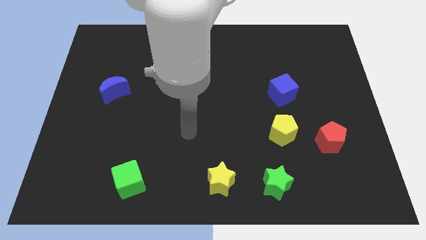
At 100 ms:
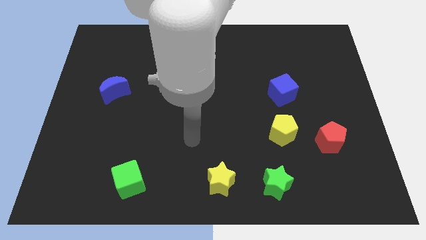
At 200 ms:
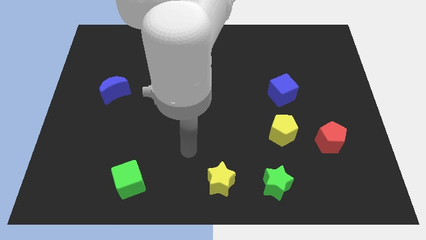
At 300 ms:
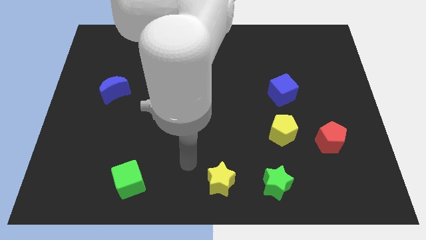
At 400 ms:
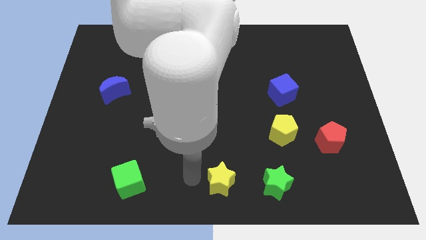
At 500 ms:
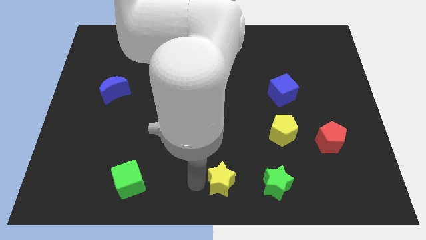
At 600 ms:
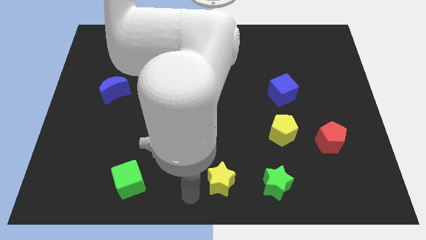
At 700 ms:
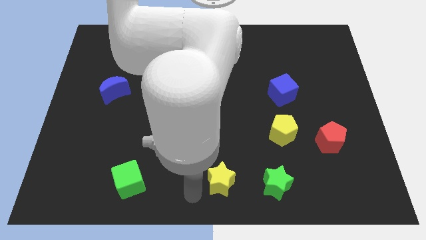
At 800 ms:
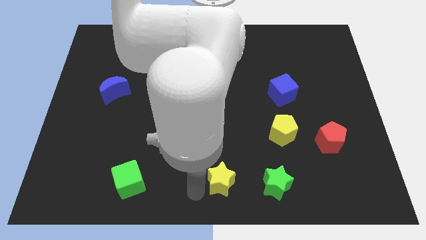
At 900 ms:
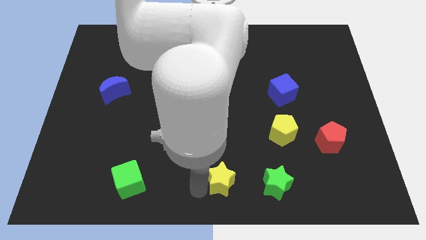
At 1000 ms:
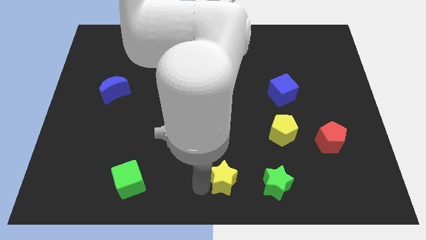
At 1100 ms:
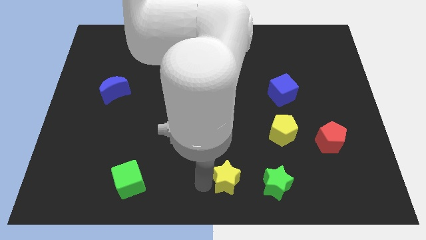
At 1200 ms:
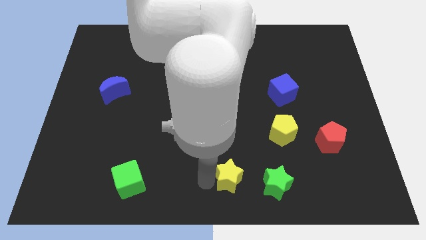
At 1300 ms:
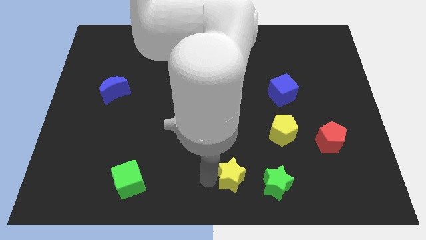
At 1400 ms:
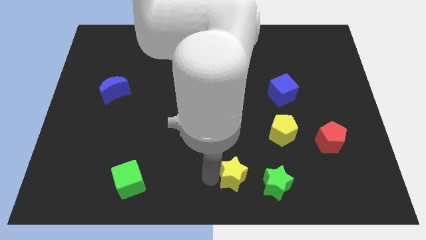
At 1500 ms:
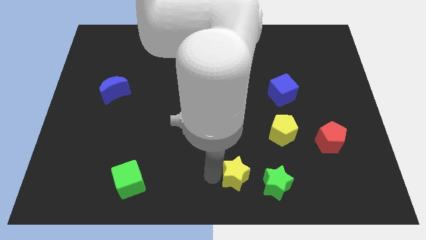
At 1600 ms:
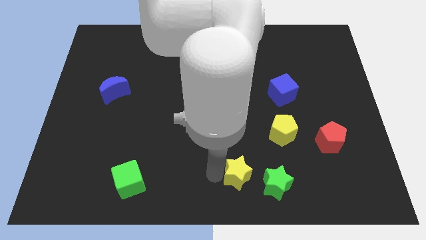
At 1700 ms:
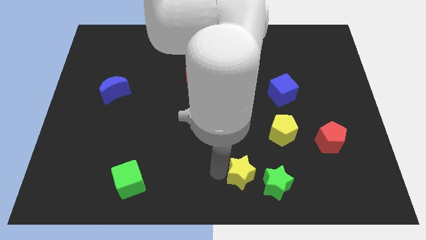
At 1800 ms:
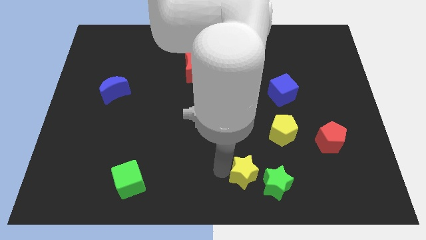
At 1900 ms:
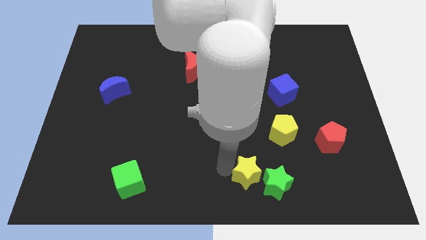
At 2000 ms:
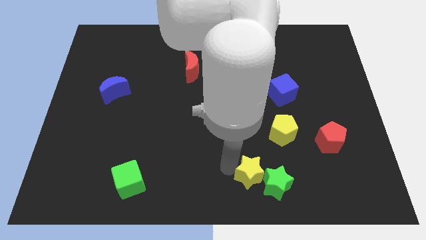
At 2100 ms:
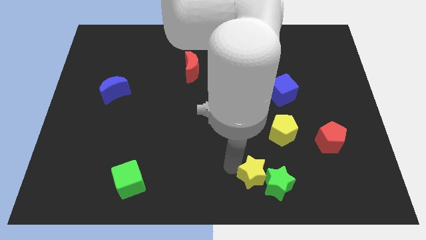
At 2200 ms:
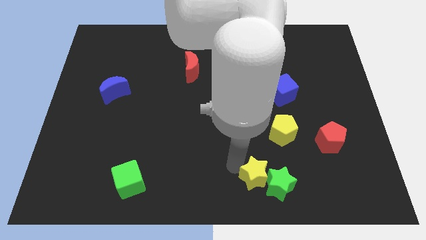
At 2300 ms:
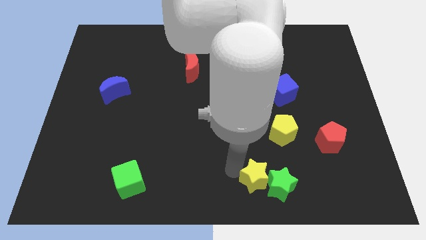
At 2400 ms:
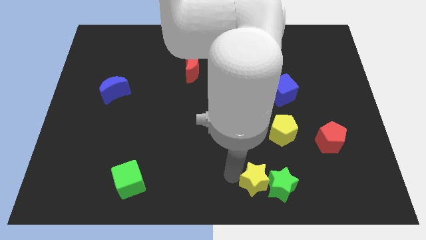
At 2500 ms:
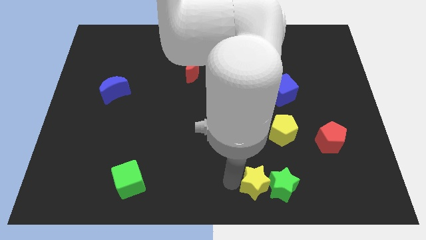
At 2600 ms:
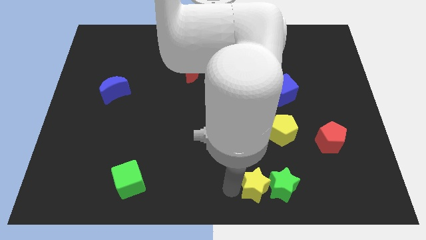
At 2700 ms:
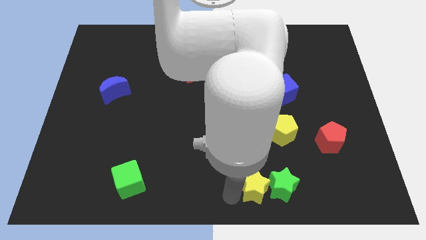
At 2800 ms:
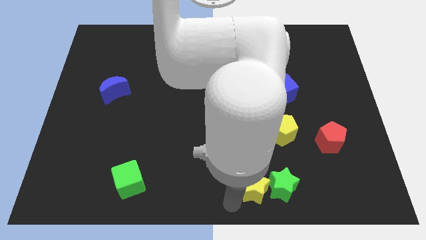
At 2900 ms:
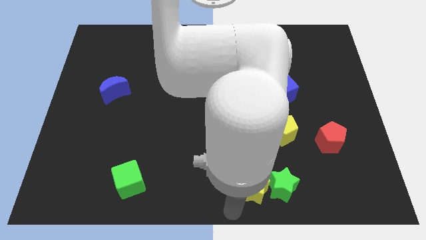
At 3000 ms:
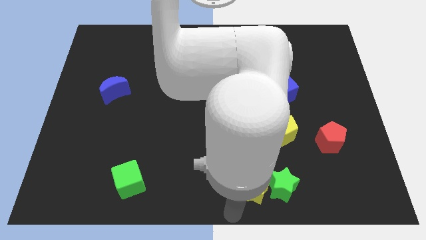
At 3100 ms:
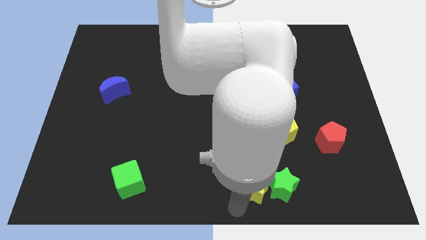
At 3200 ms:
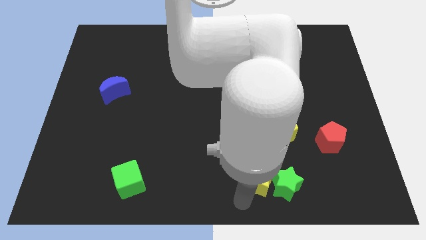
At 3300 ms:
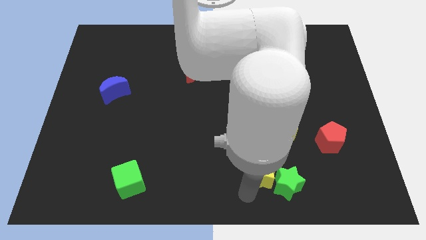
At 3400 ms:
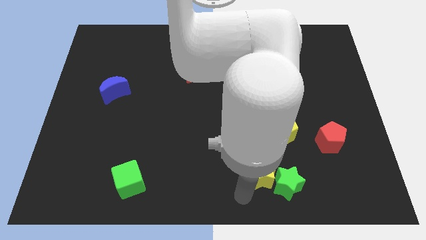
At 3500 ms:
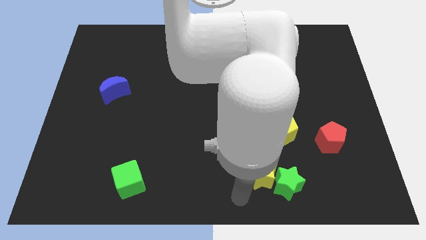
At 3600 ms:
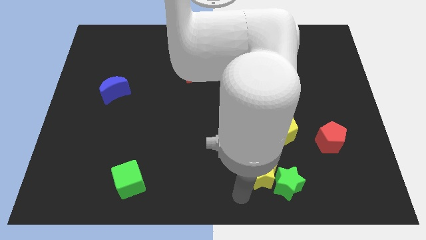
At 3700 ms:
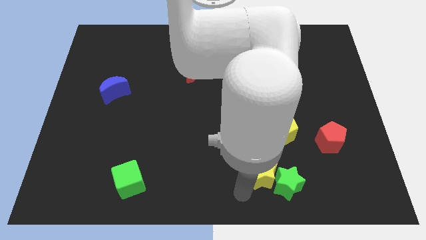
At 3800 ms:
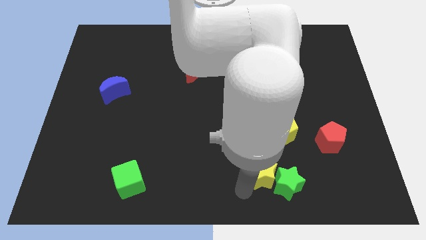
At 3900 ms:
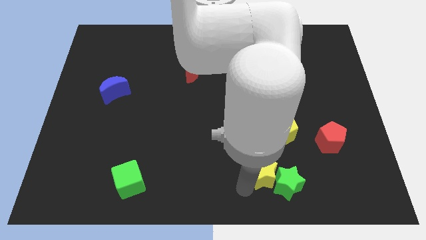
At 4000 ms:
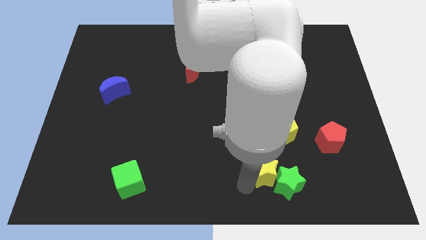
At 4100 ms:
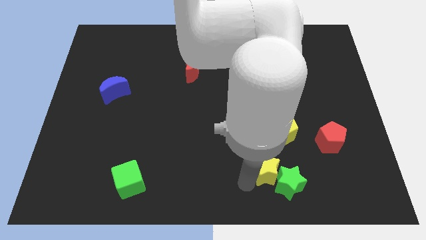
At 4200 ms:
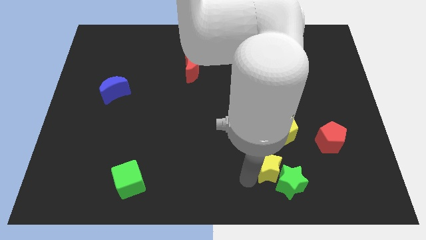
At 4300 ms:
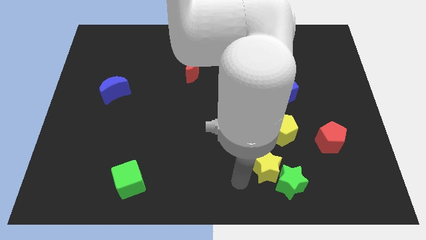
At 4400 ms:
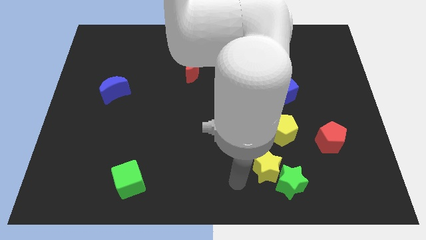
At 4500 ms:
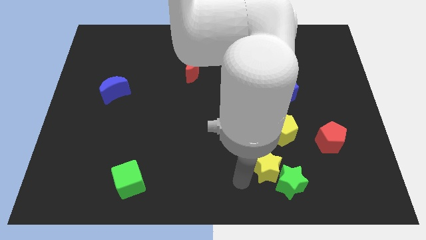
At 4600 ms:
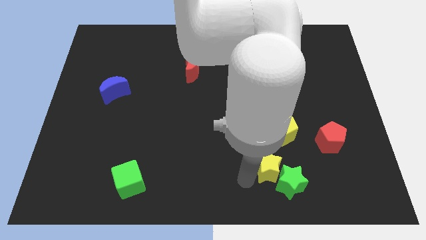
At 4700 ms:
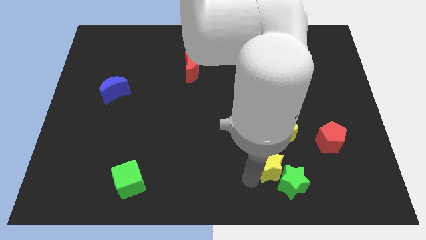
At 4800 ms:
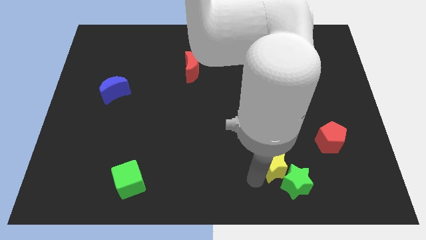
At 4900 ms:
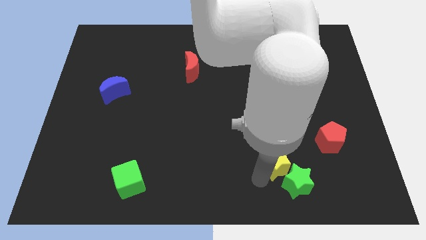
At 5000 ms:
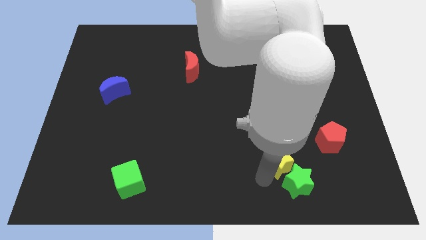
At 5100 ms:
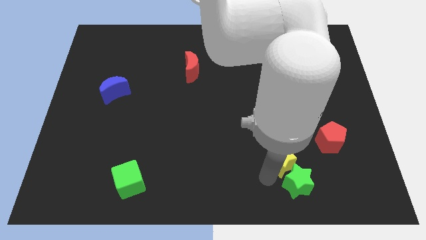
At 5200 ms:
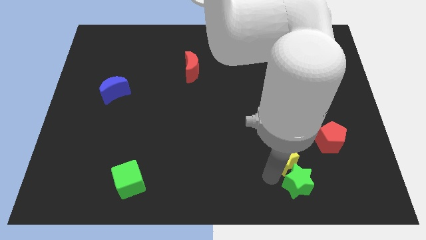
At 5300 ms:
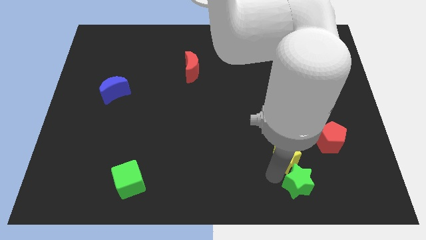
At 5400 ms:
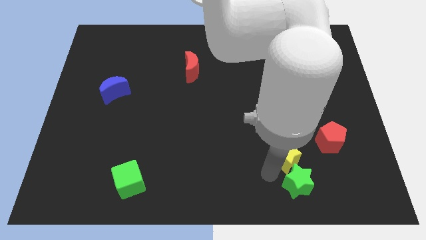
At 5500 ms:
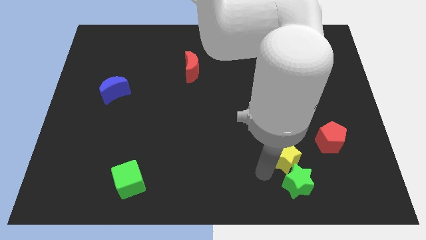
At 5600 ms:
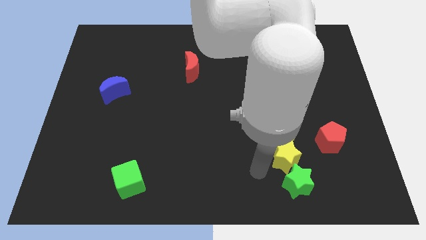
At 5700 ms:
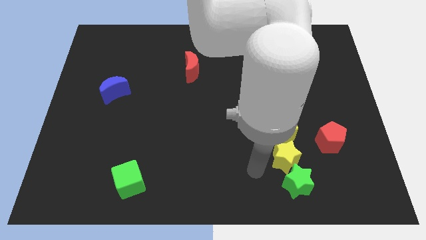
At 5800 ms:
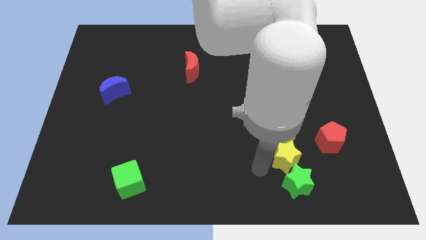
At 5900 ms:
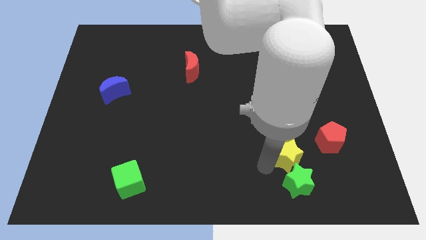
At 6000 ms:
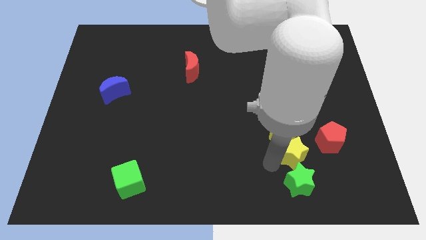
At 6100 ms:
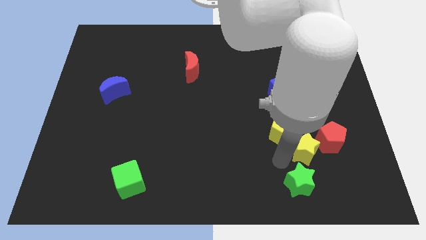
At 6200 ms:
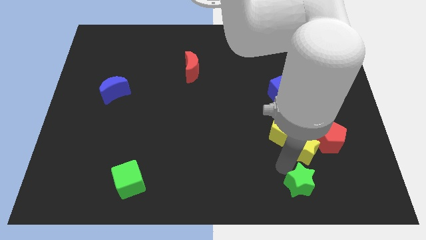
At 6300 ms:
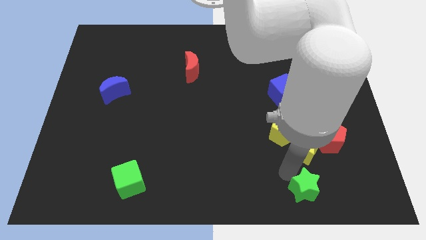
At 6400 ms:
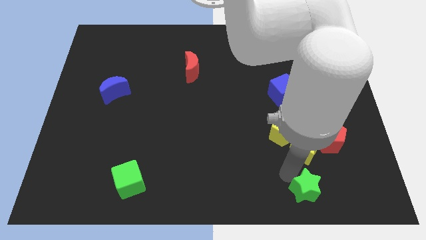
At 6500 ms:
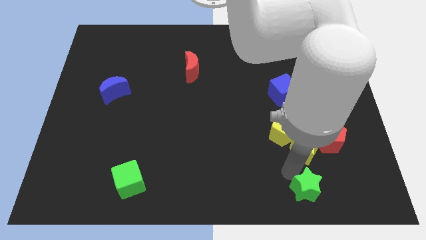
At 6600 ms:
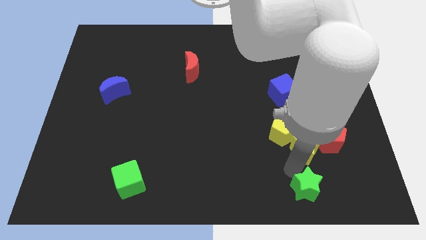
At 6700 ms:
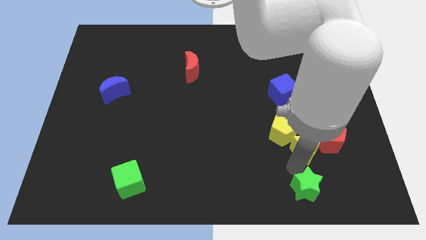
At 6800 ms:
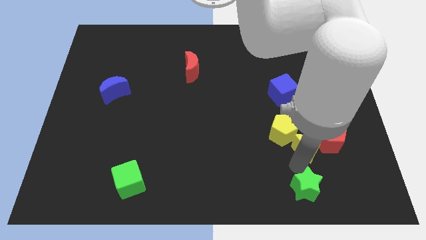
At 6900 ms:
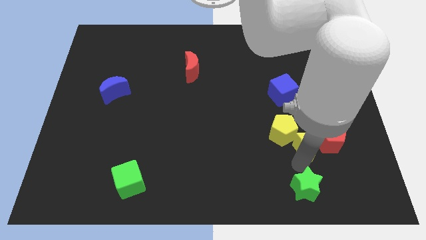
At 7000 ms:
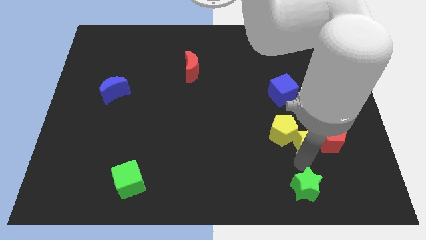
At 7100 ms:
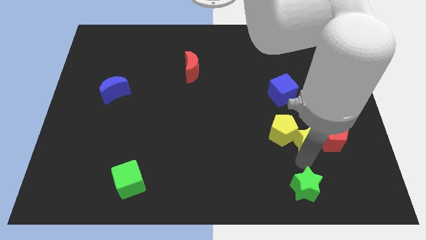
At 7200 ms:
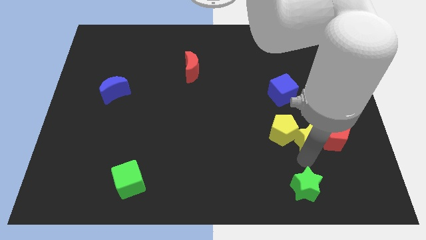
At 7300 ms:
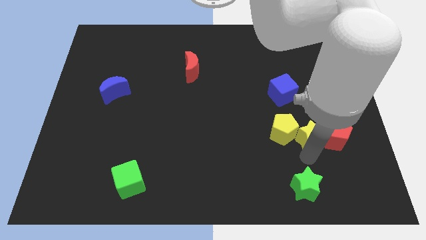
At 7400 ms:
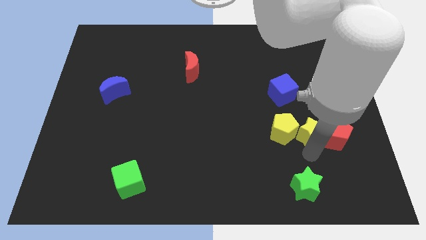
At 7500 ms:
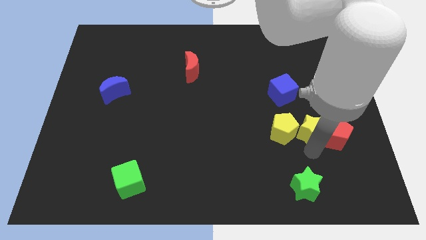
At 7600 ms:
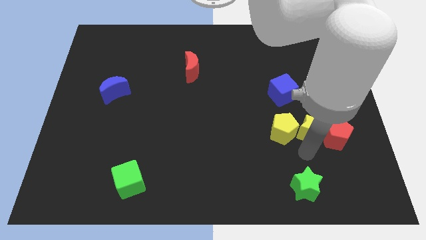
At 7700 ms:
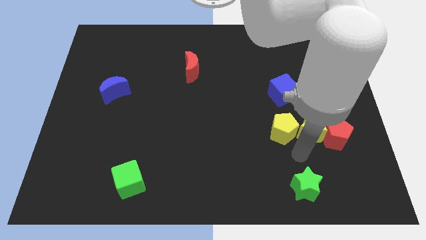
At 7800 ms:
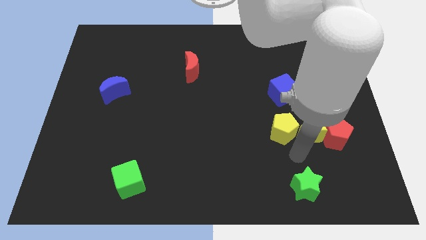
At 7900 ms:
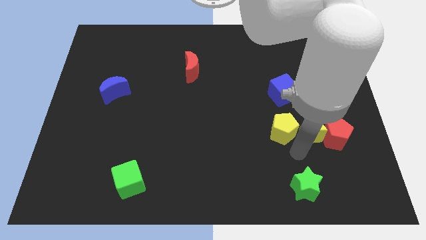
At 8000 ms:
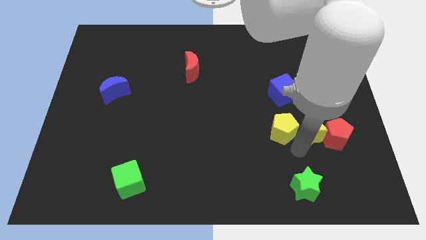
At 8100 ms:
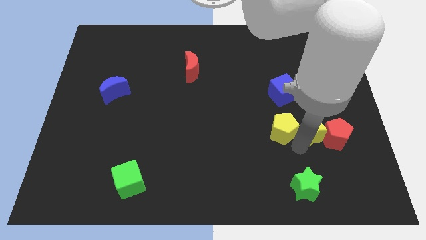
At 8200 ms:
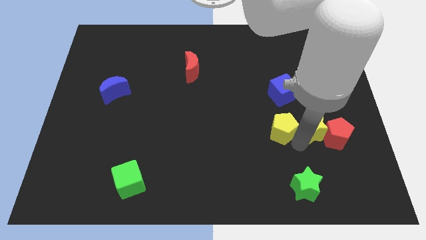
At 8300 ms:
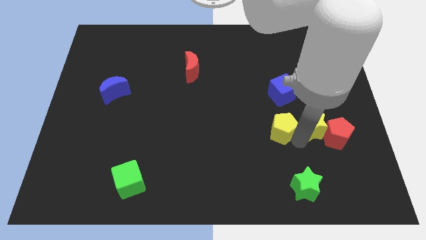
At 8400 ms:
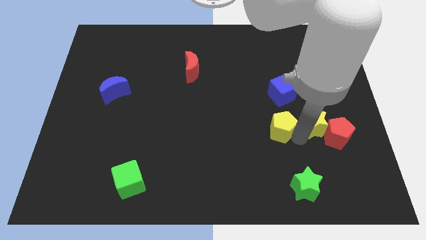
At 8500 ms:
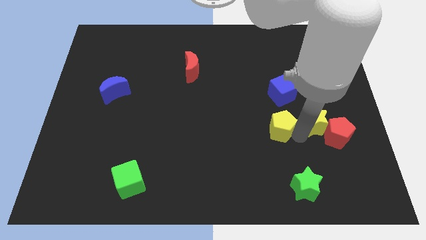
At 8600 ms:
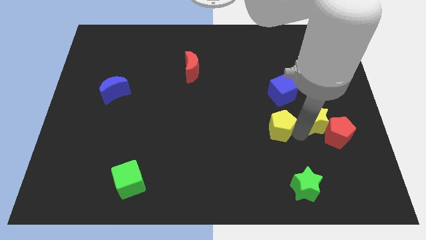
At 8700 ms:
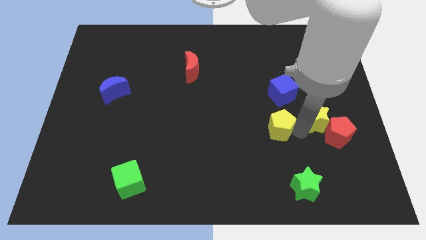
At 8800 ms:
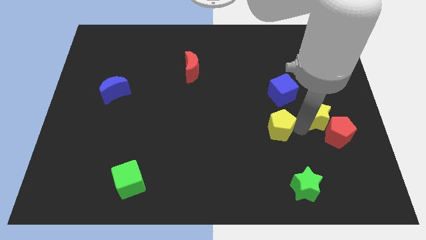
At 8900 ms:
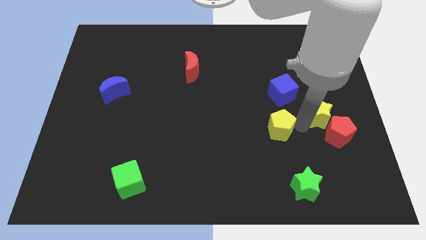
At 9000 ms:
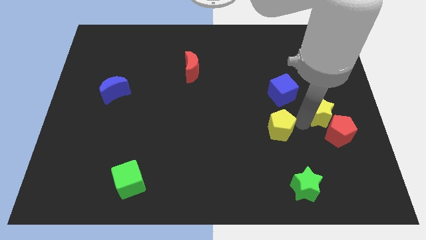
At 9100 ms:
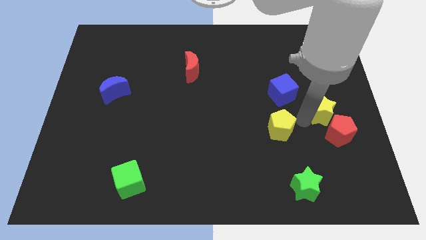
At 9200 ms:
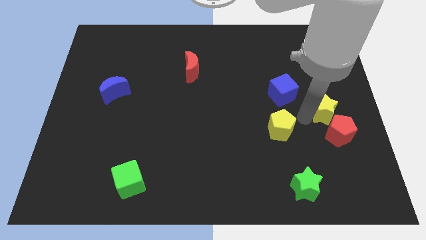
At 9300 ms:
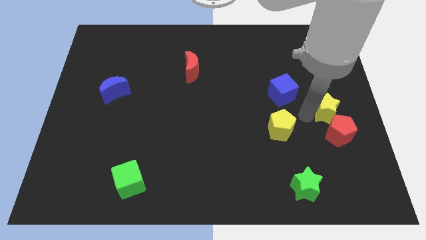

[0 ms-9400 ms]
put the yellow star to the right side of the board
